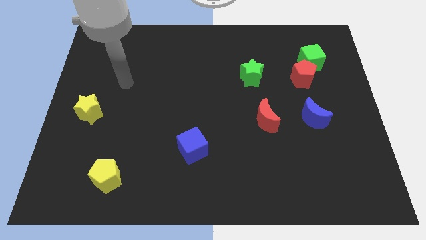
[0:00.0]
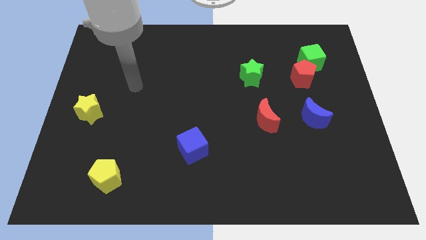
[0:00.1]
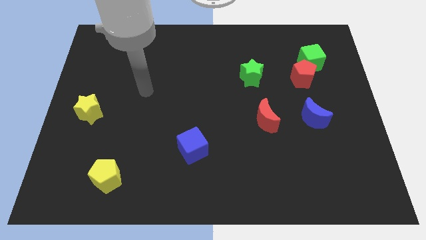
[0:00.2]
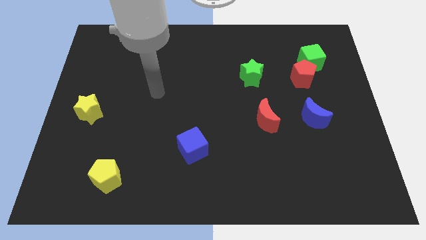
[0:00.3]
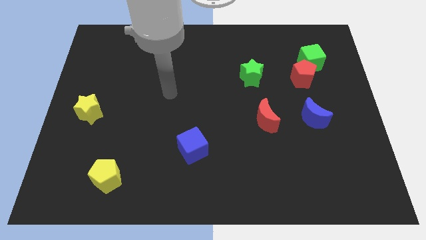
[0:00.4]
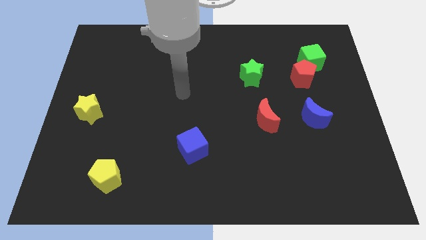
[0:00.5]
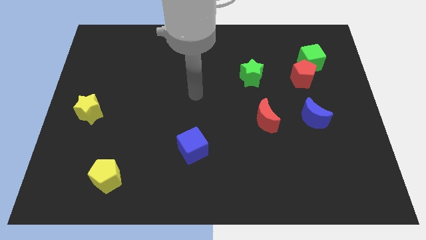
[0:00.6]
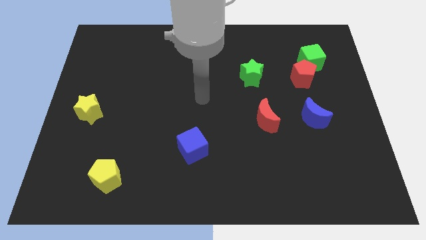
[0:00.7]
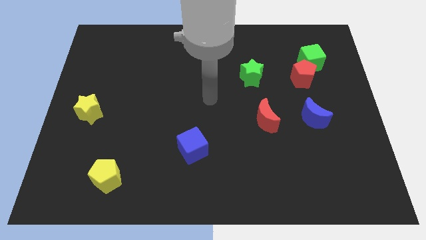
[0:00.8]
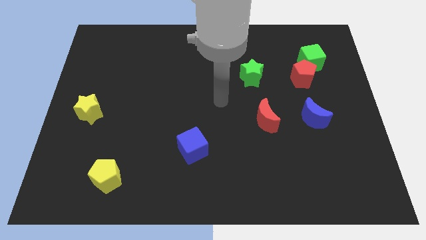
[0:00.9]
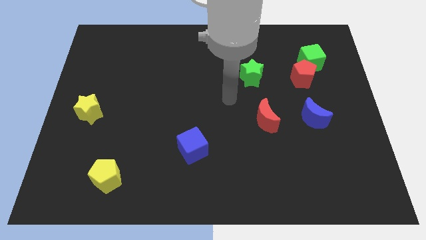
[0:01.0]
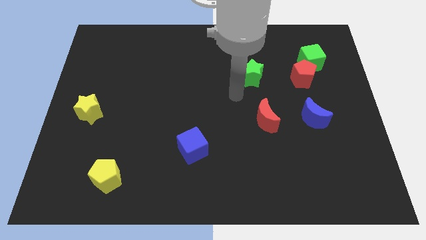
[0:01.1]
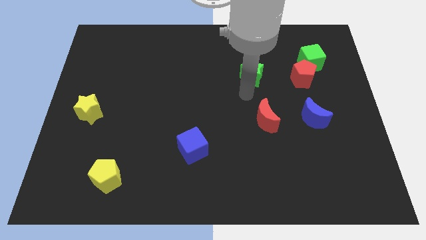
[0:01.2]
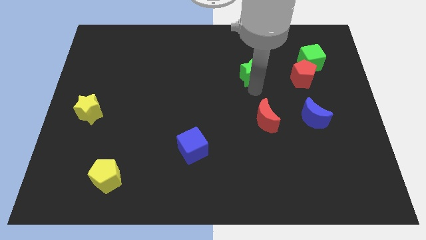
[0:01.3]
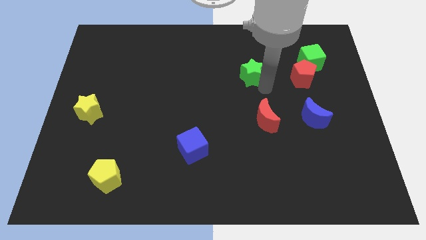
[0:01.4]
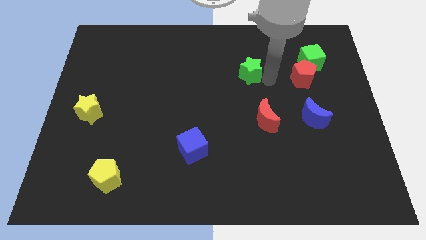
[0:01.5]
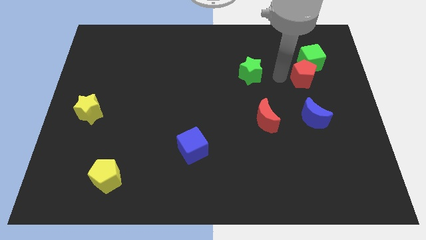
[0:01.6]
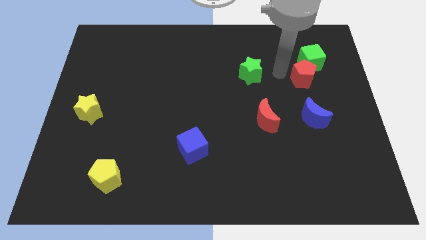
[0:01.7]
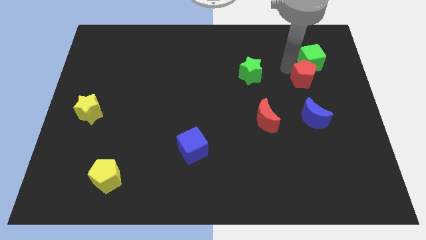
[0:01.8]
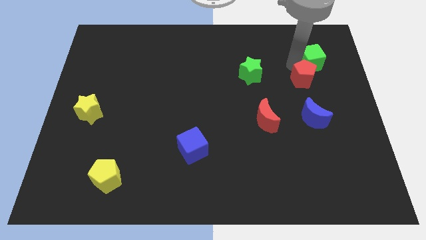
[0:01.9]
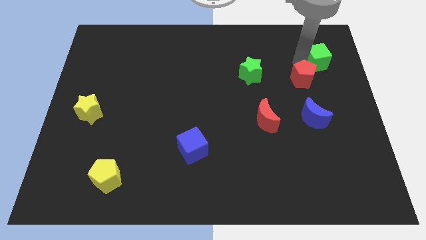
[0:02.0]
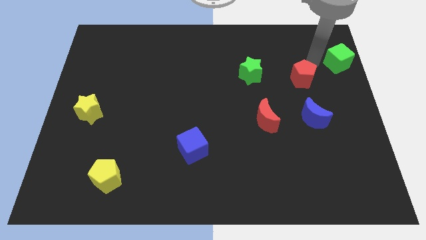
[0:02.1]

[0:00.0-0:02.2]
pull the red pentagon apart from the green cube

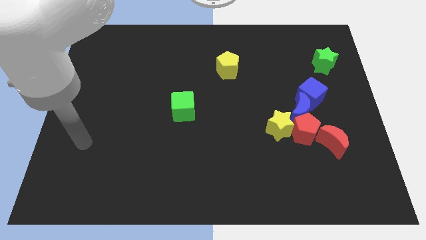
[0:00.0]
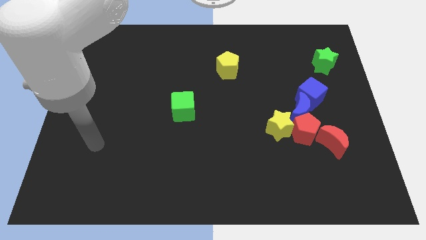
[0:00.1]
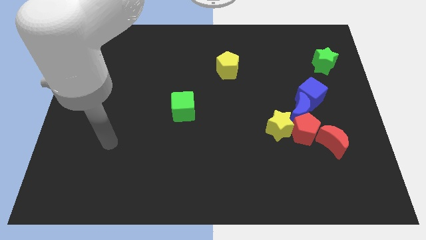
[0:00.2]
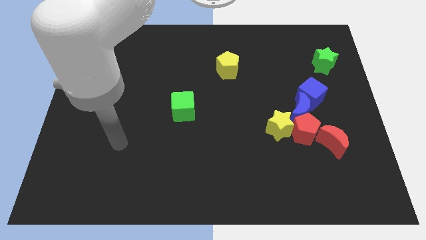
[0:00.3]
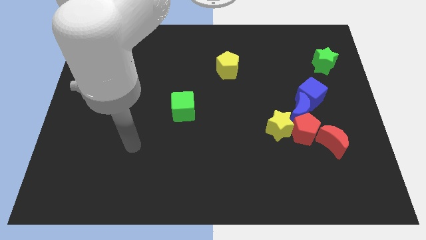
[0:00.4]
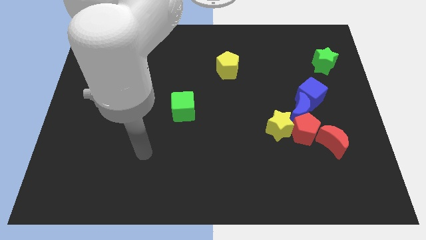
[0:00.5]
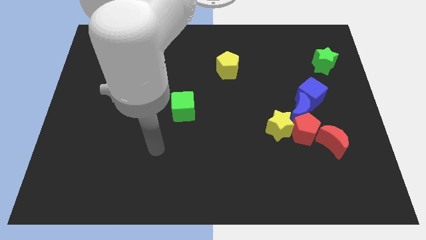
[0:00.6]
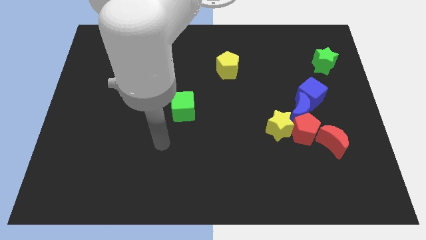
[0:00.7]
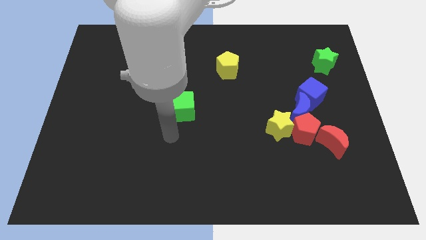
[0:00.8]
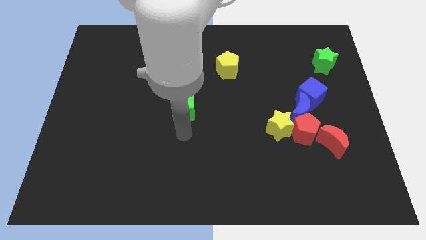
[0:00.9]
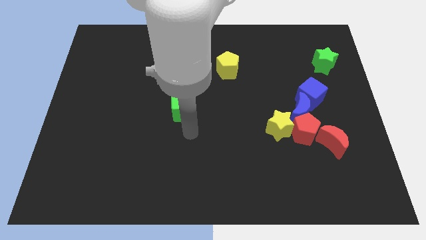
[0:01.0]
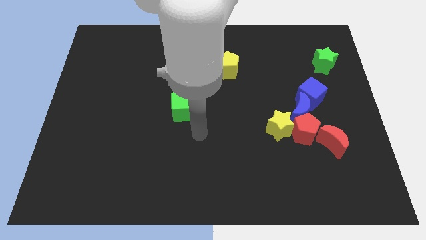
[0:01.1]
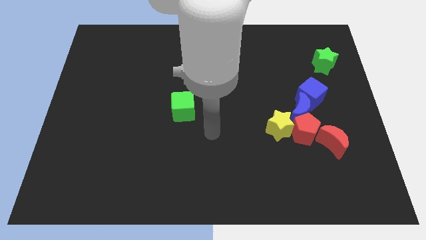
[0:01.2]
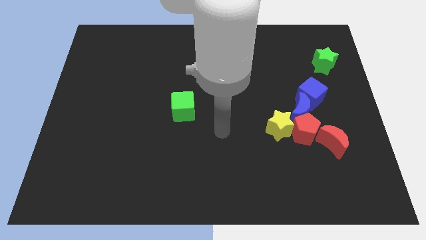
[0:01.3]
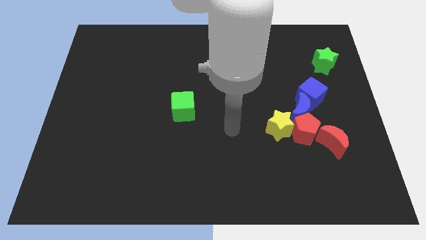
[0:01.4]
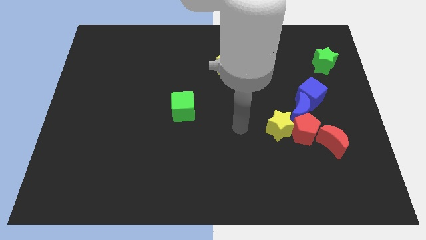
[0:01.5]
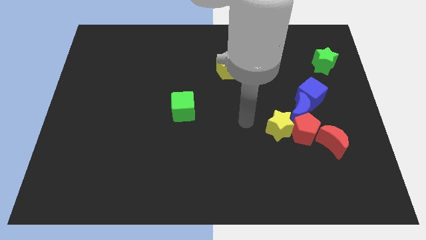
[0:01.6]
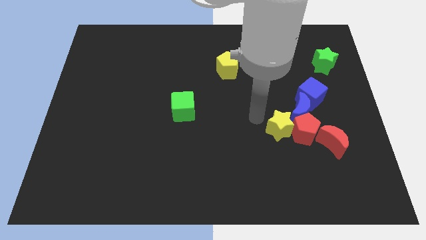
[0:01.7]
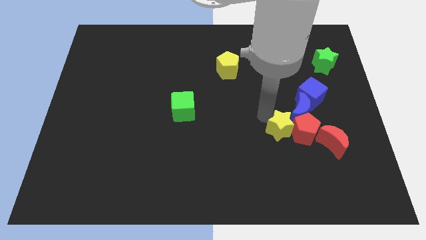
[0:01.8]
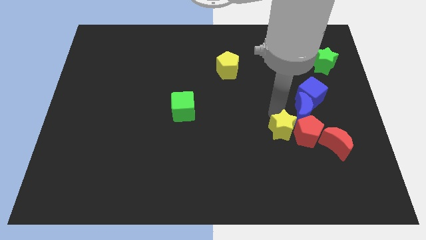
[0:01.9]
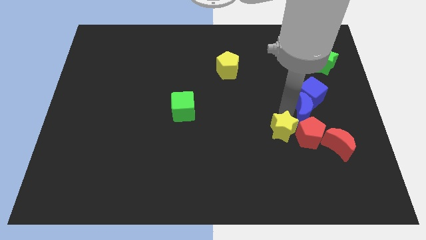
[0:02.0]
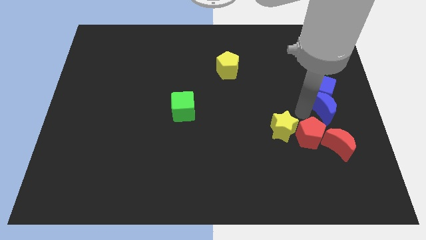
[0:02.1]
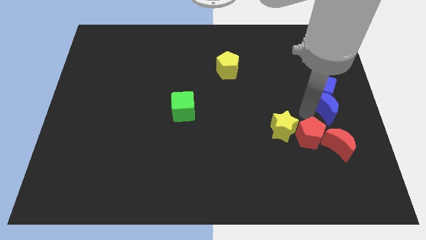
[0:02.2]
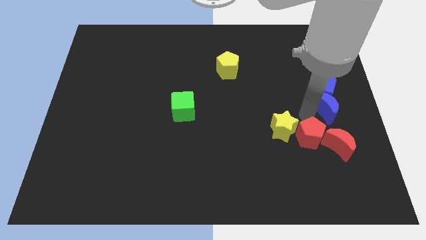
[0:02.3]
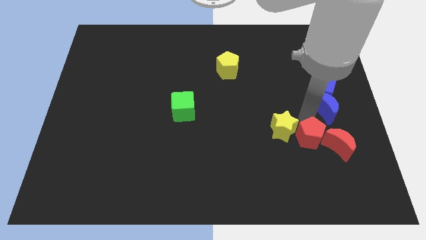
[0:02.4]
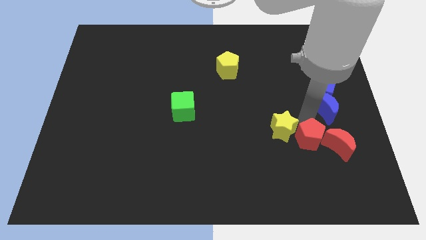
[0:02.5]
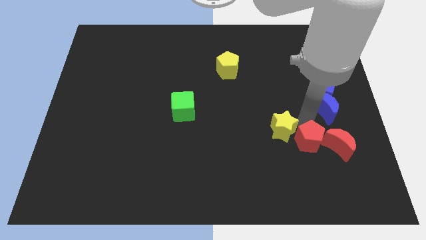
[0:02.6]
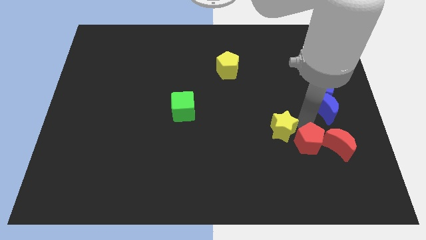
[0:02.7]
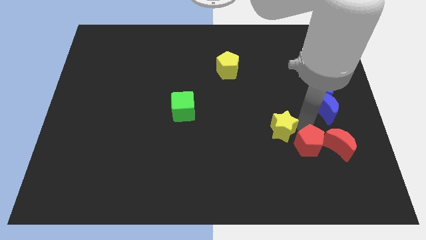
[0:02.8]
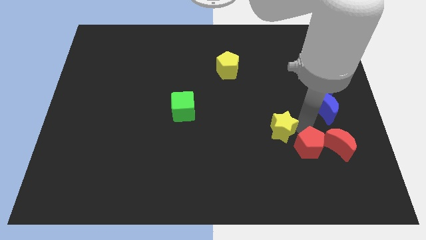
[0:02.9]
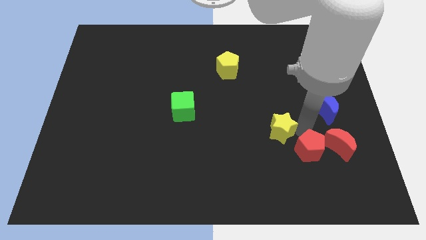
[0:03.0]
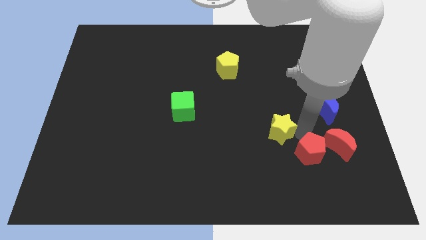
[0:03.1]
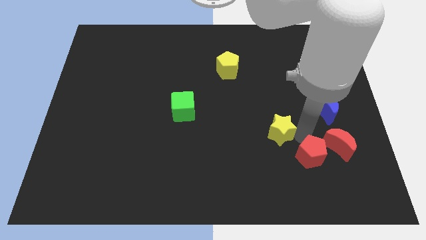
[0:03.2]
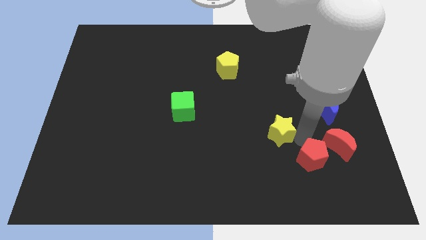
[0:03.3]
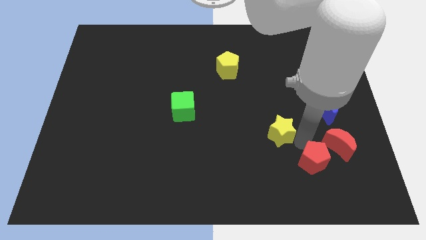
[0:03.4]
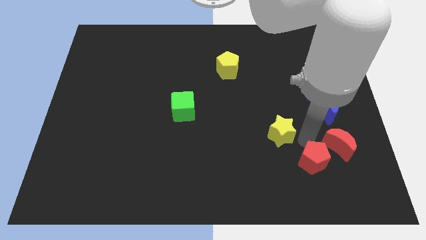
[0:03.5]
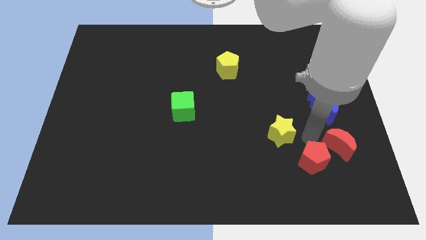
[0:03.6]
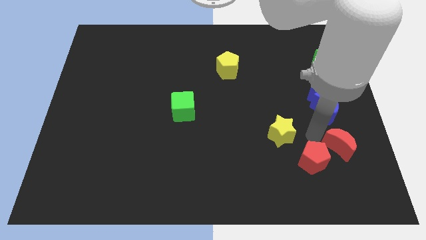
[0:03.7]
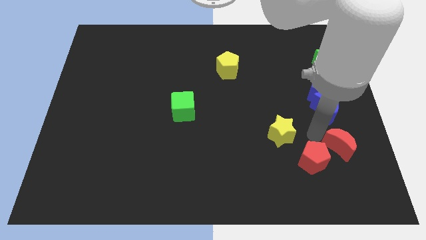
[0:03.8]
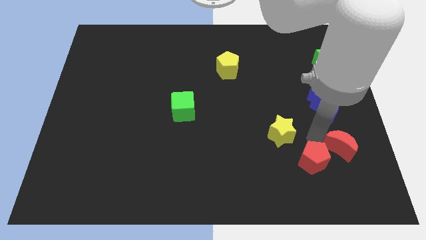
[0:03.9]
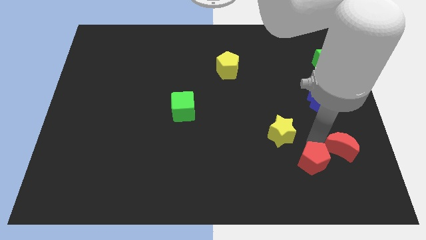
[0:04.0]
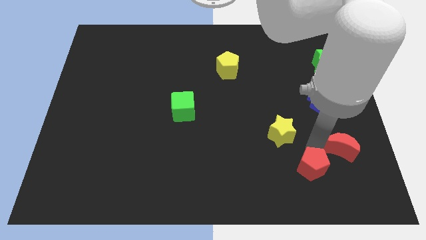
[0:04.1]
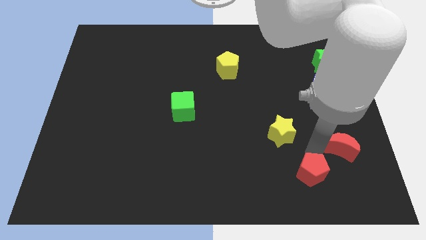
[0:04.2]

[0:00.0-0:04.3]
separate the red pentagon from the blue moon, yellow star, and red moon

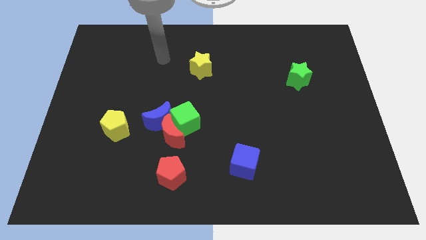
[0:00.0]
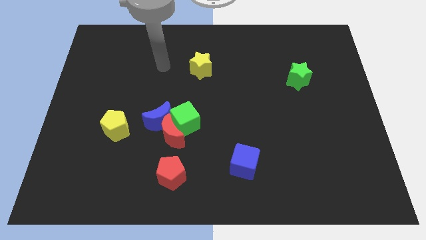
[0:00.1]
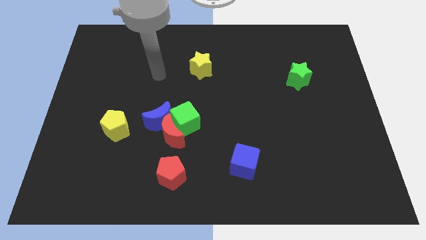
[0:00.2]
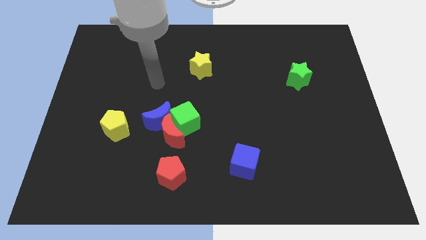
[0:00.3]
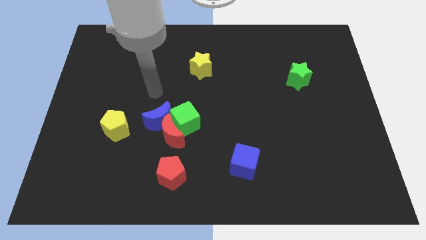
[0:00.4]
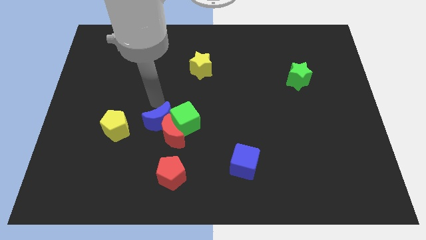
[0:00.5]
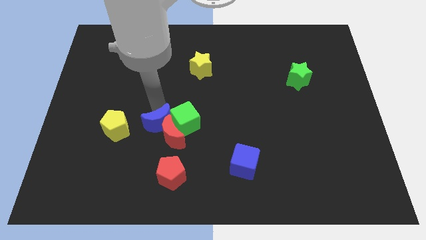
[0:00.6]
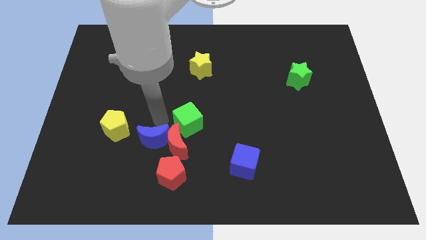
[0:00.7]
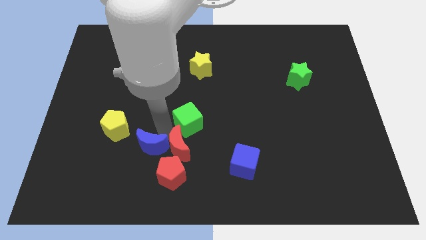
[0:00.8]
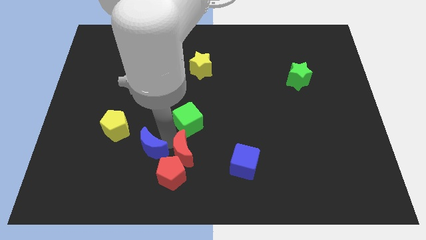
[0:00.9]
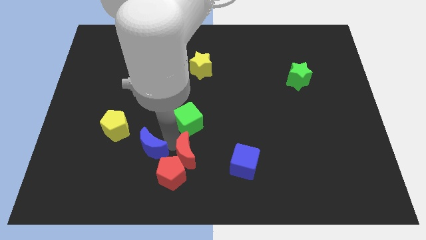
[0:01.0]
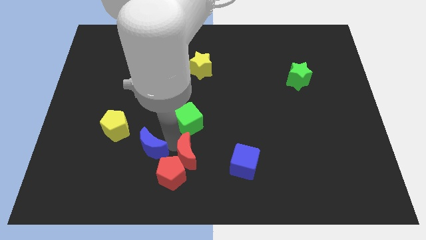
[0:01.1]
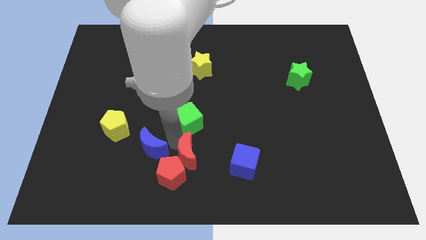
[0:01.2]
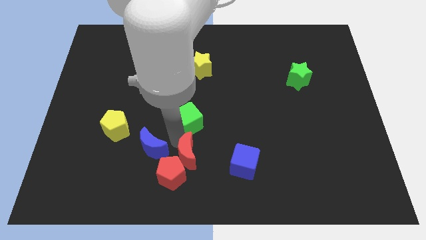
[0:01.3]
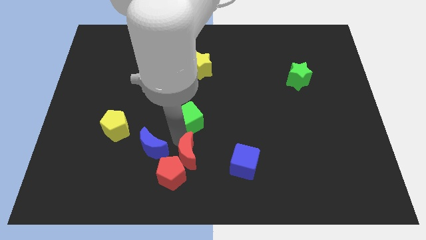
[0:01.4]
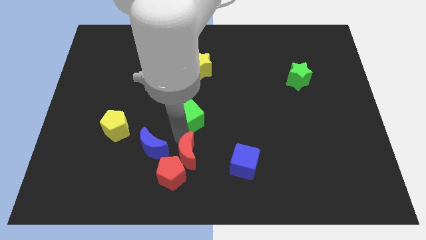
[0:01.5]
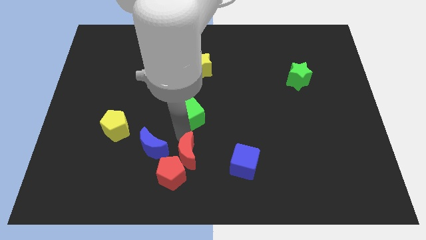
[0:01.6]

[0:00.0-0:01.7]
move the green cube away from the red moon and blue moon

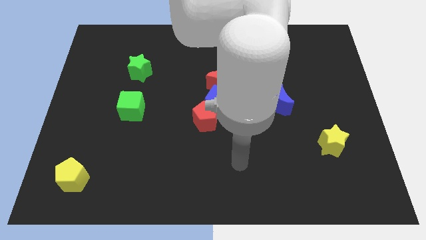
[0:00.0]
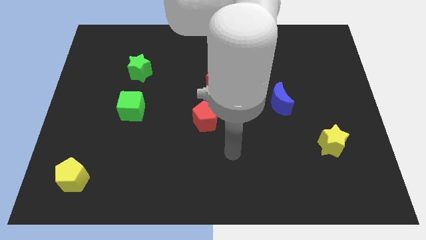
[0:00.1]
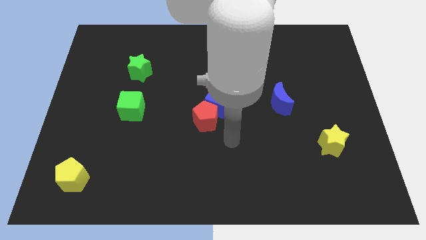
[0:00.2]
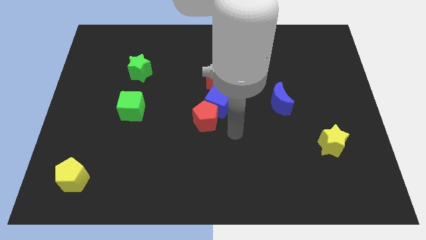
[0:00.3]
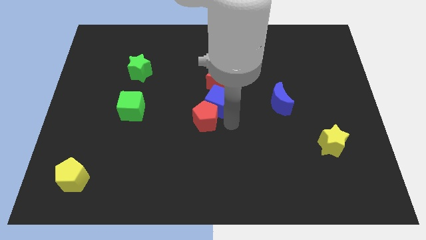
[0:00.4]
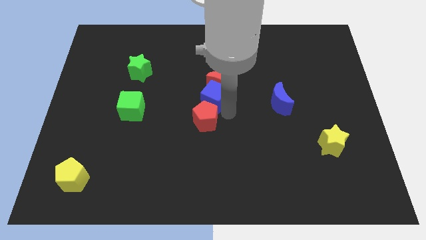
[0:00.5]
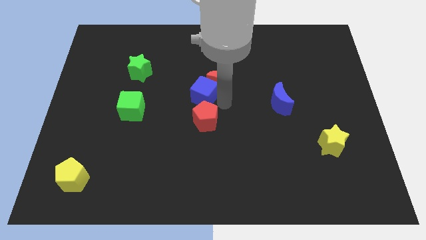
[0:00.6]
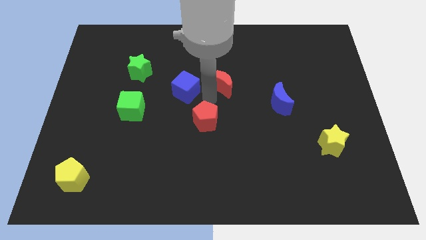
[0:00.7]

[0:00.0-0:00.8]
pull the red pentagon apart from the blue cube

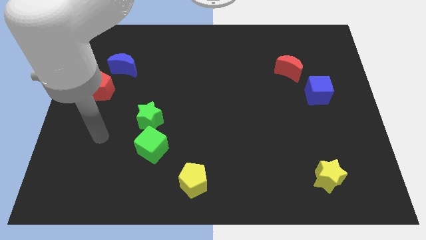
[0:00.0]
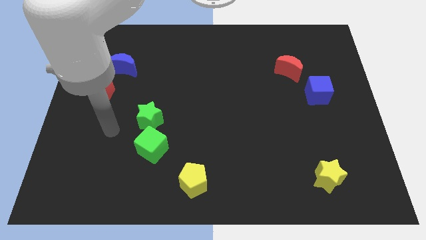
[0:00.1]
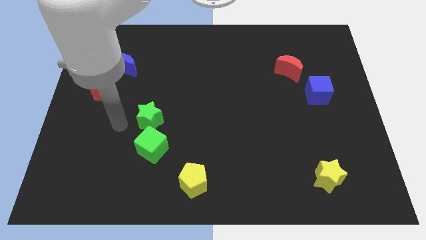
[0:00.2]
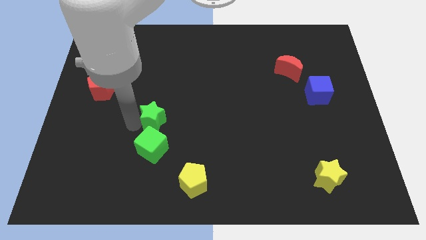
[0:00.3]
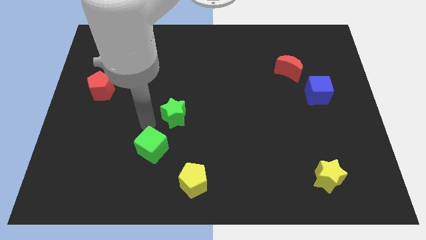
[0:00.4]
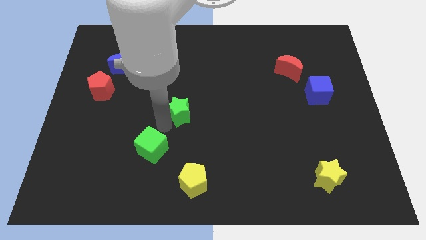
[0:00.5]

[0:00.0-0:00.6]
move the green cube away from the green star
